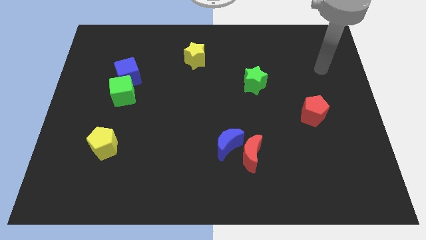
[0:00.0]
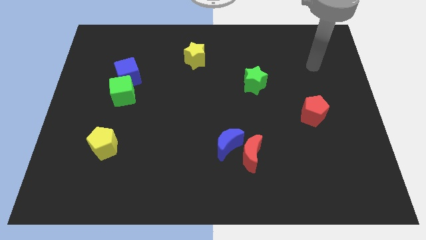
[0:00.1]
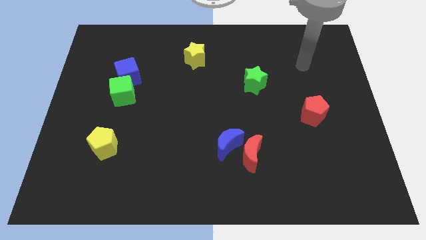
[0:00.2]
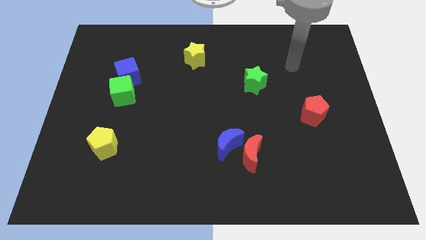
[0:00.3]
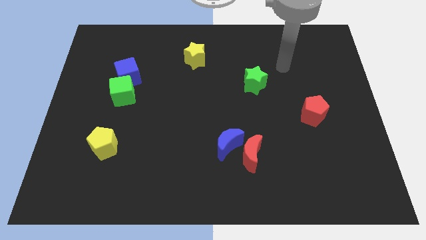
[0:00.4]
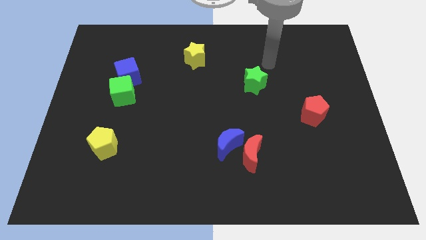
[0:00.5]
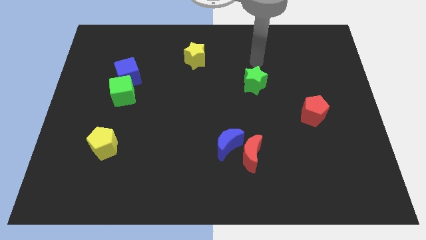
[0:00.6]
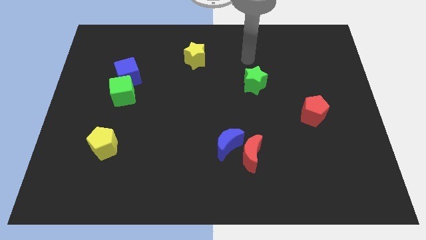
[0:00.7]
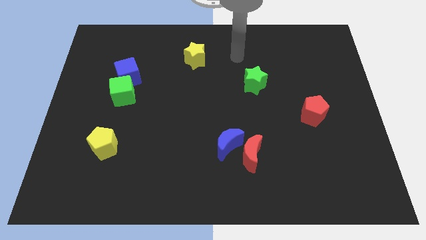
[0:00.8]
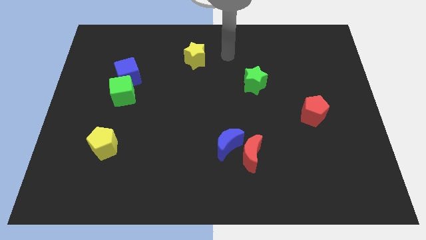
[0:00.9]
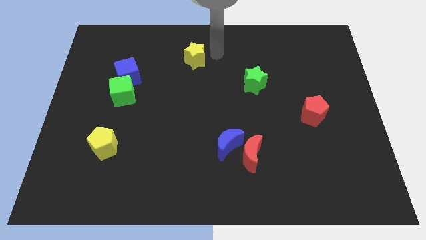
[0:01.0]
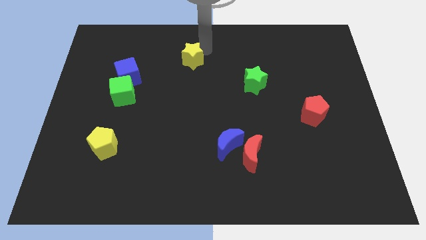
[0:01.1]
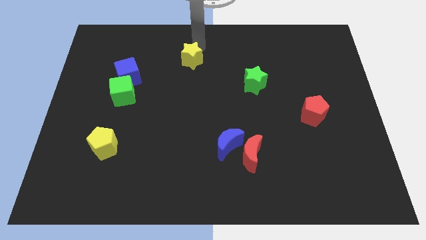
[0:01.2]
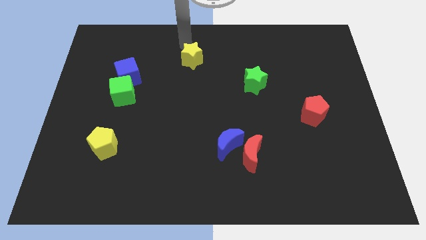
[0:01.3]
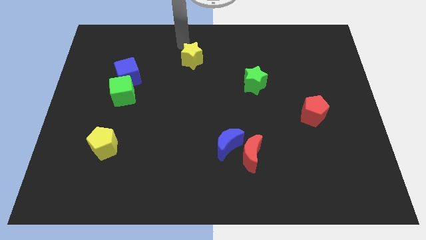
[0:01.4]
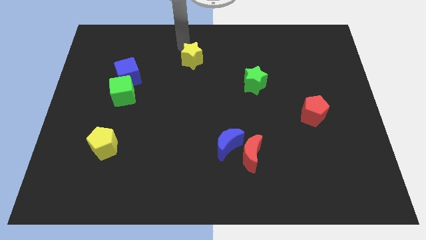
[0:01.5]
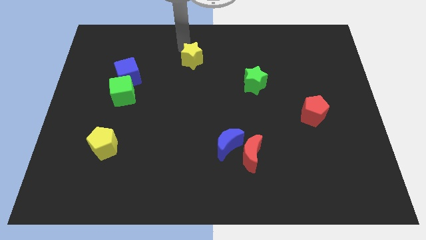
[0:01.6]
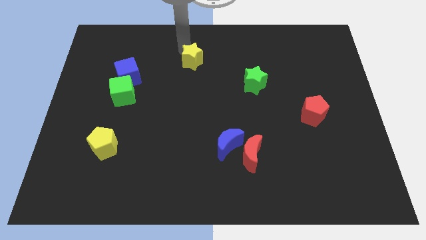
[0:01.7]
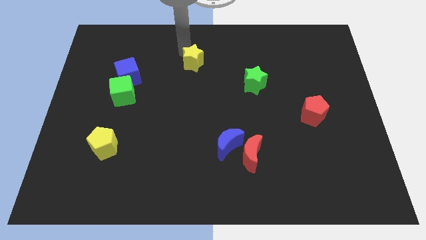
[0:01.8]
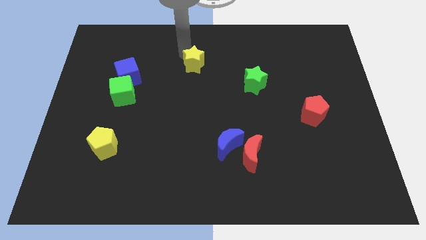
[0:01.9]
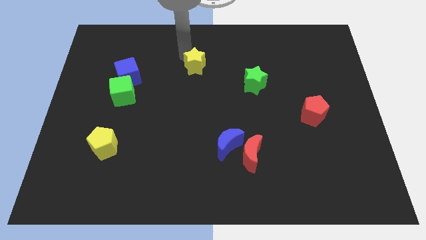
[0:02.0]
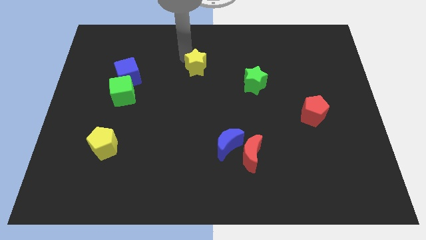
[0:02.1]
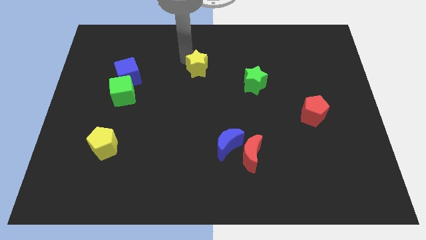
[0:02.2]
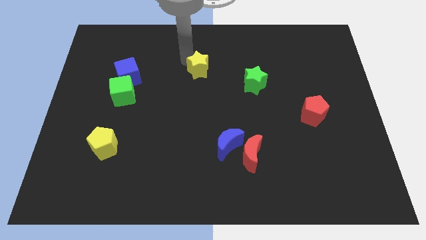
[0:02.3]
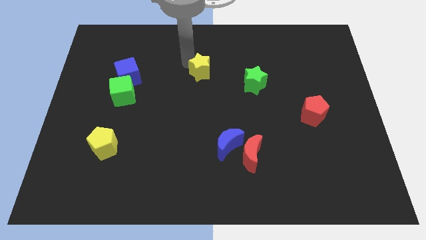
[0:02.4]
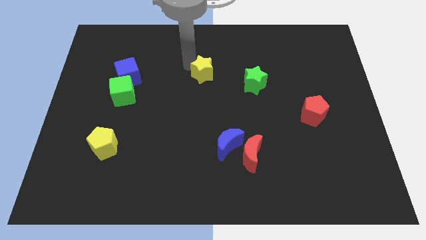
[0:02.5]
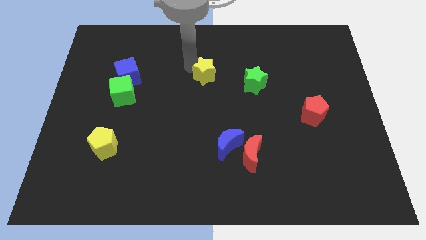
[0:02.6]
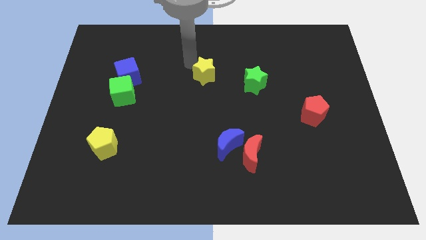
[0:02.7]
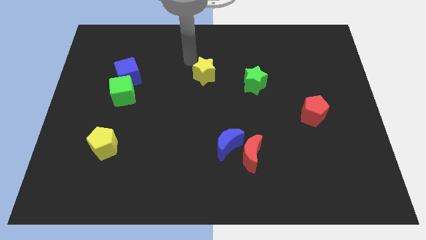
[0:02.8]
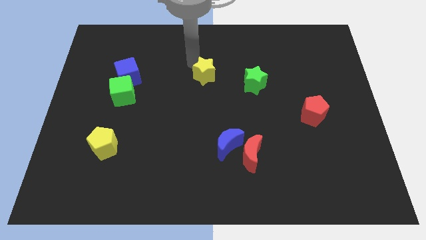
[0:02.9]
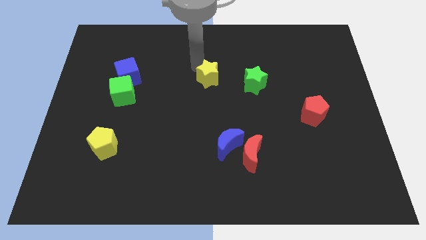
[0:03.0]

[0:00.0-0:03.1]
slightly move the yellow star downwards and right

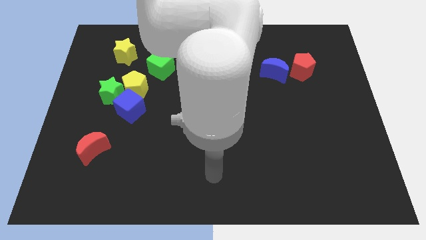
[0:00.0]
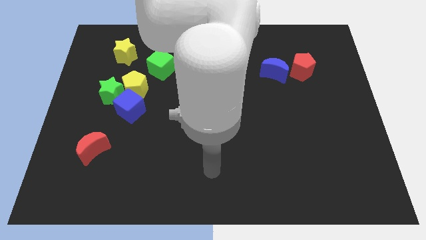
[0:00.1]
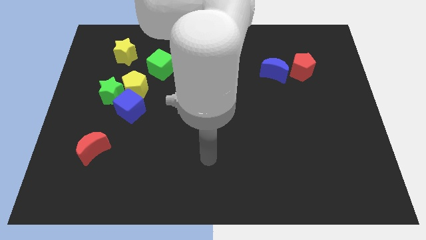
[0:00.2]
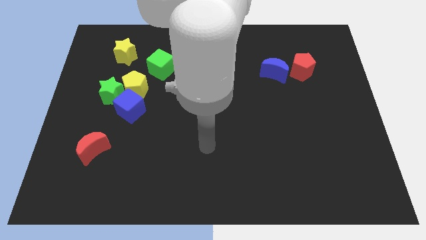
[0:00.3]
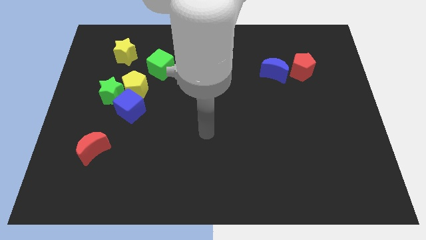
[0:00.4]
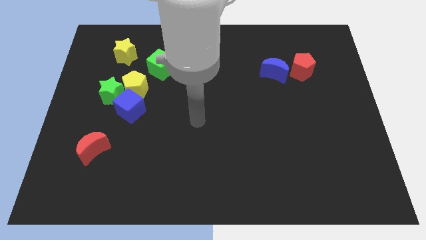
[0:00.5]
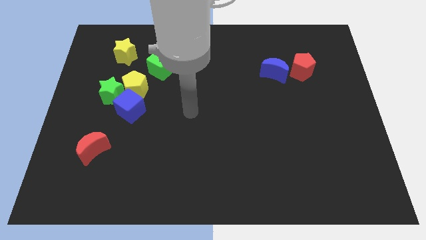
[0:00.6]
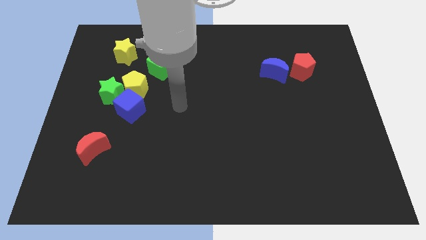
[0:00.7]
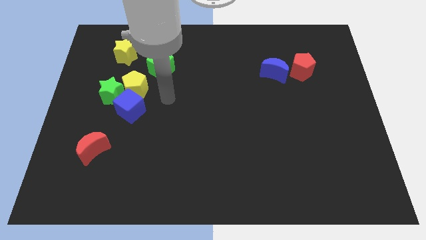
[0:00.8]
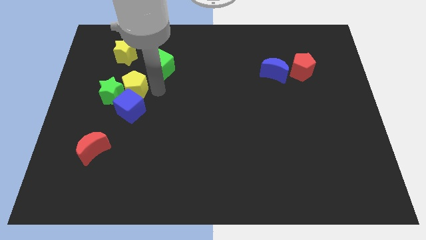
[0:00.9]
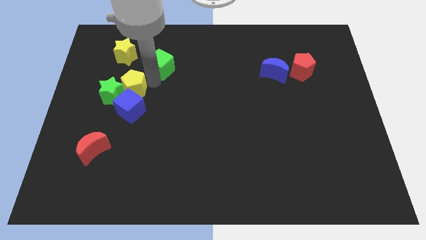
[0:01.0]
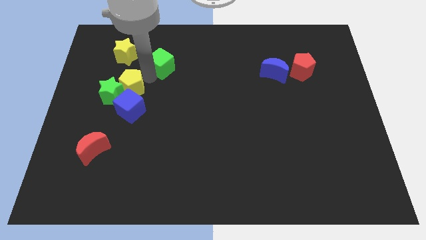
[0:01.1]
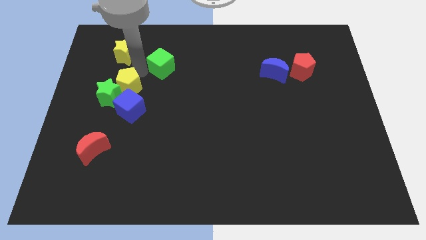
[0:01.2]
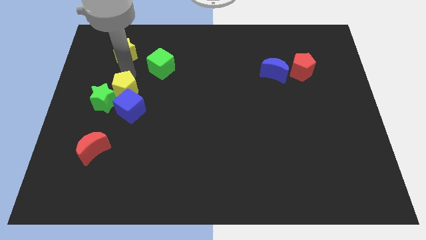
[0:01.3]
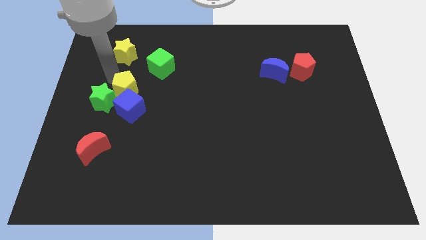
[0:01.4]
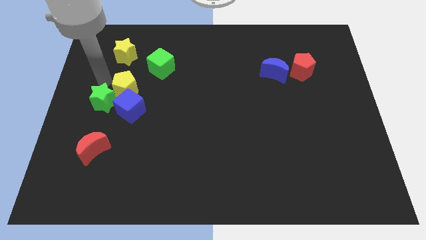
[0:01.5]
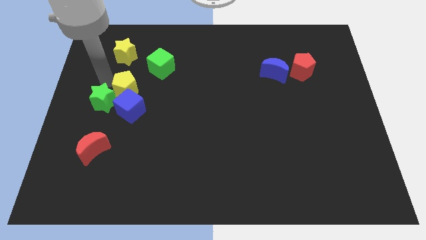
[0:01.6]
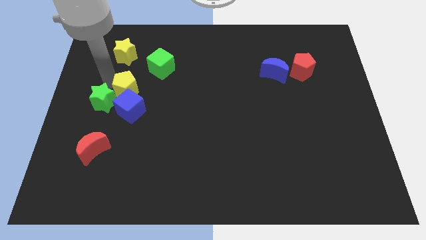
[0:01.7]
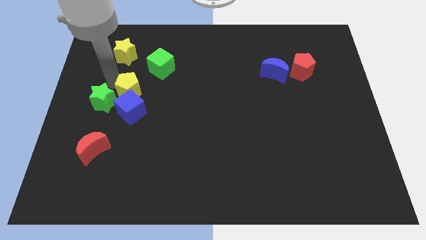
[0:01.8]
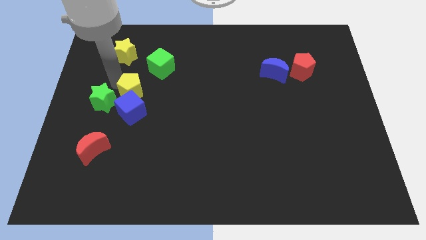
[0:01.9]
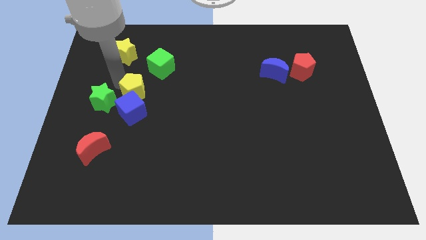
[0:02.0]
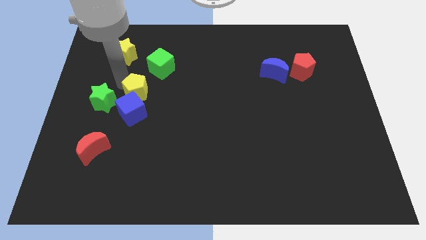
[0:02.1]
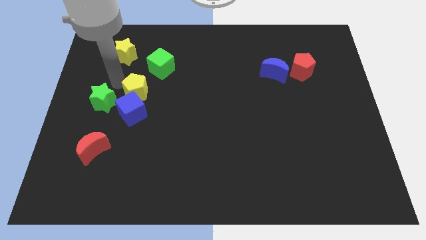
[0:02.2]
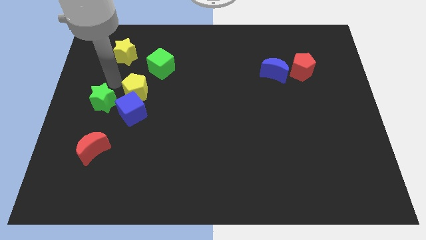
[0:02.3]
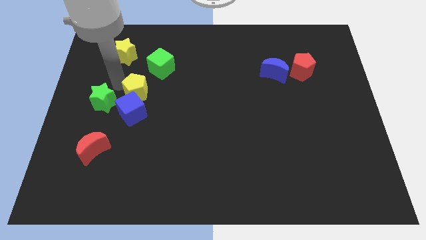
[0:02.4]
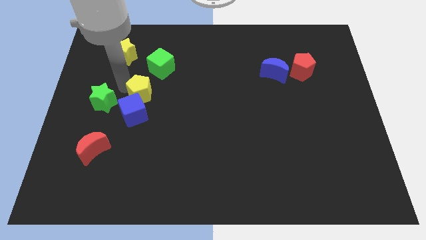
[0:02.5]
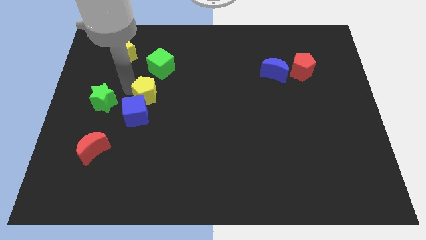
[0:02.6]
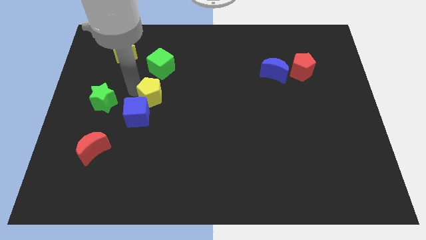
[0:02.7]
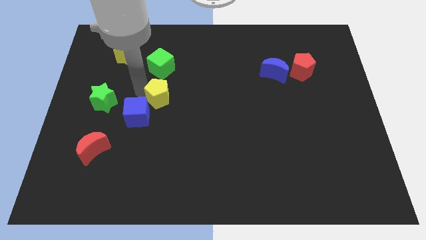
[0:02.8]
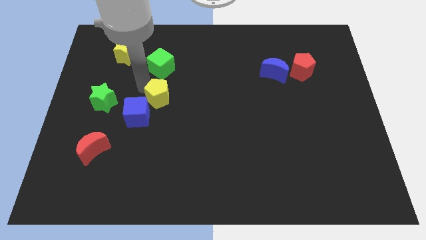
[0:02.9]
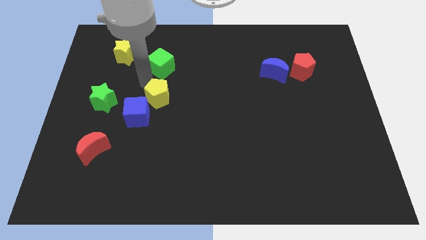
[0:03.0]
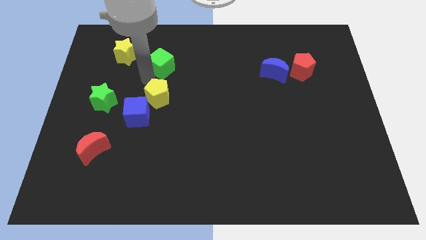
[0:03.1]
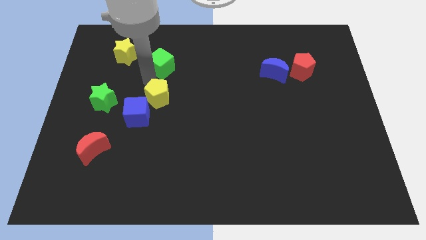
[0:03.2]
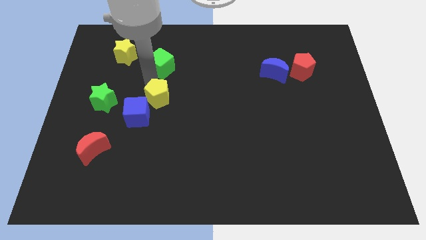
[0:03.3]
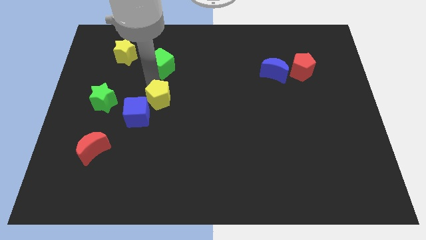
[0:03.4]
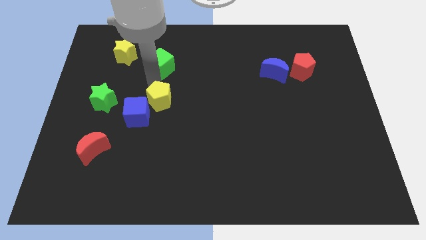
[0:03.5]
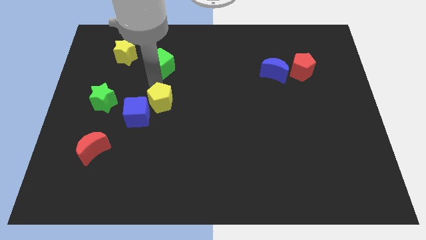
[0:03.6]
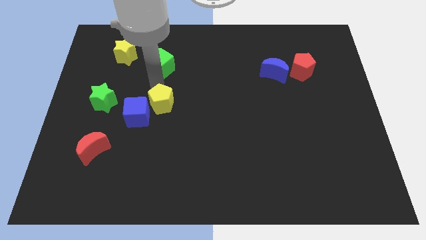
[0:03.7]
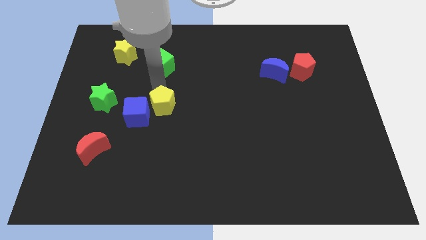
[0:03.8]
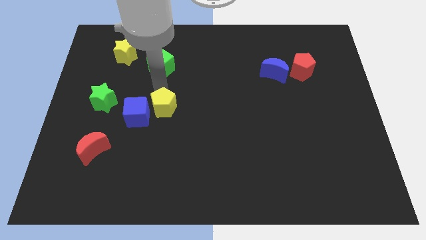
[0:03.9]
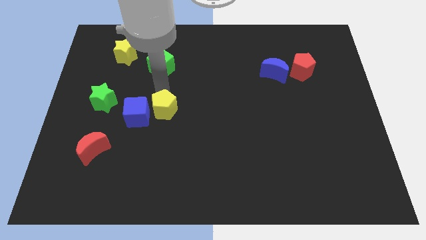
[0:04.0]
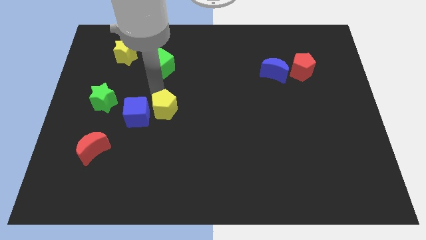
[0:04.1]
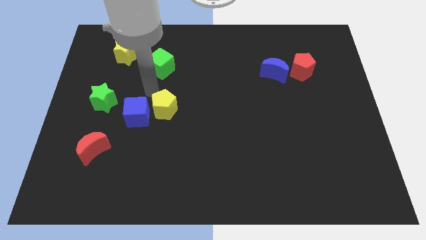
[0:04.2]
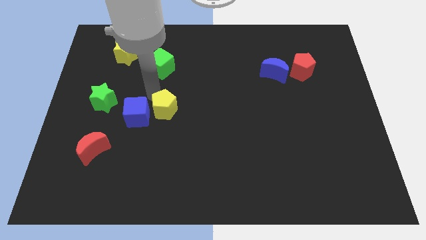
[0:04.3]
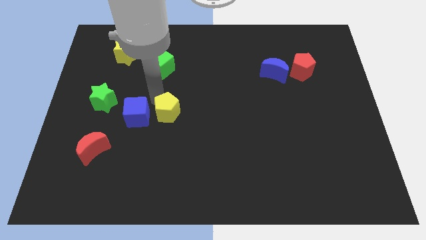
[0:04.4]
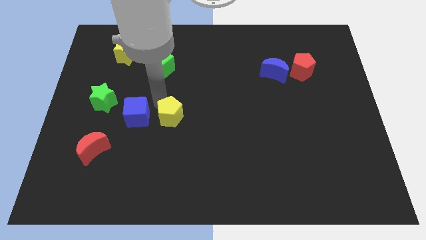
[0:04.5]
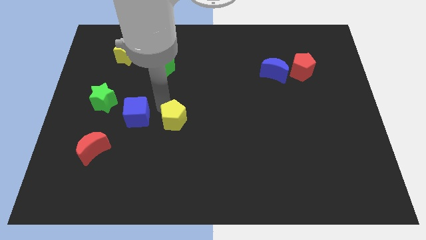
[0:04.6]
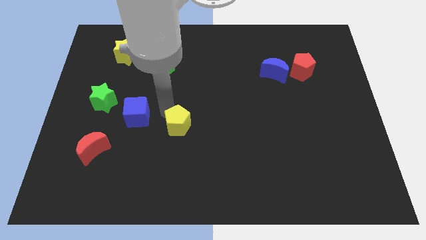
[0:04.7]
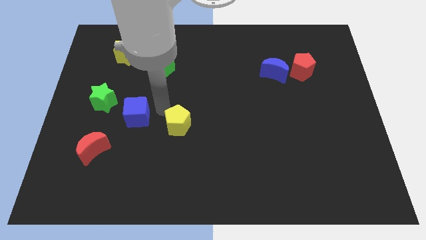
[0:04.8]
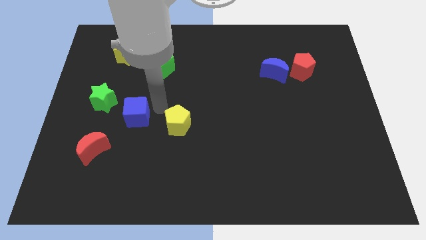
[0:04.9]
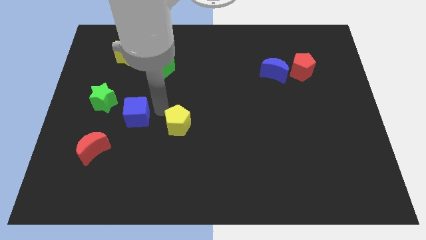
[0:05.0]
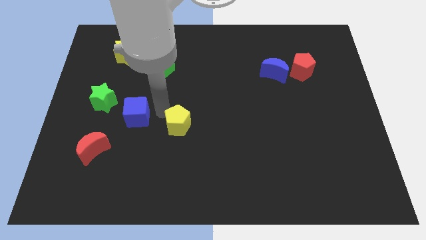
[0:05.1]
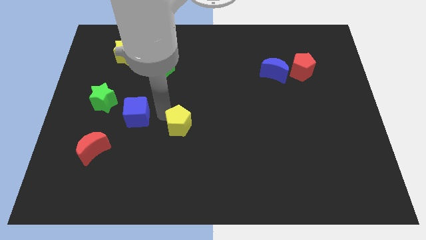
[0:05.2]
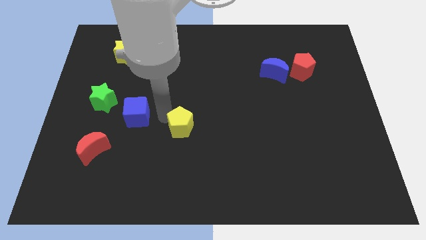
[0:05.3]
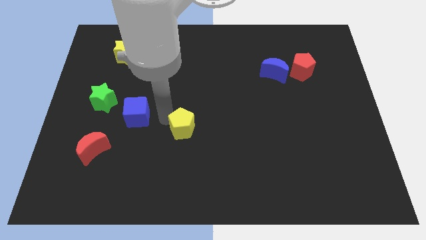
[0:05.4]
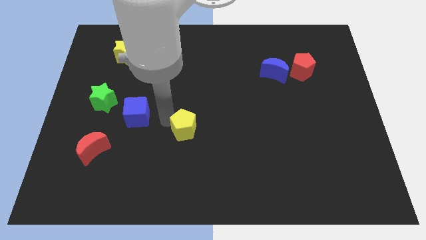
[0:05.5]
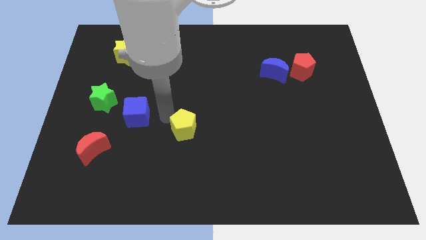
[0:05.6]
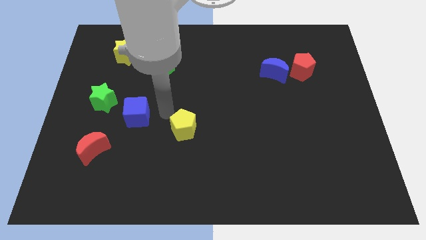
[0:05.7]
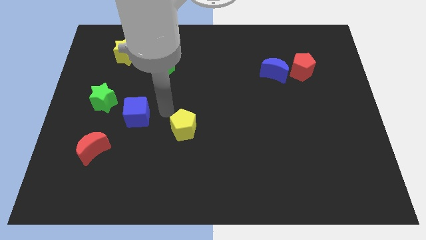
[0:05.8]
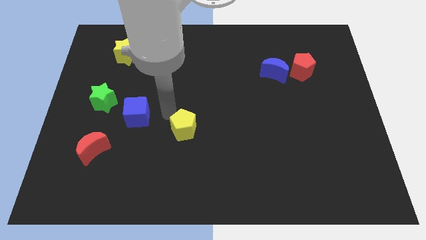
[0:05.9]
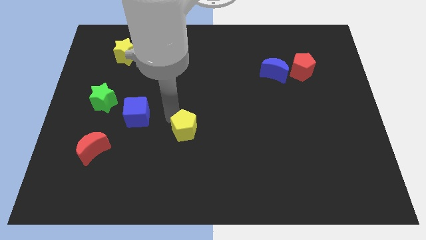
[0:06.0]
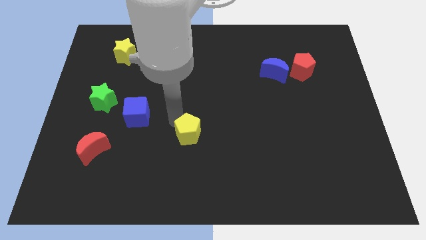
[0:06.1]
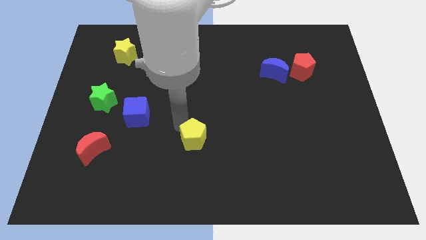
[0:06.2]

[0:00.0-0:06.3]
push the yellow pentagon down and right
